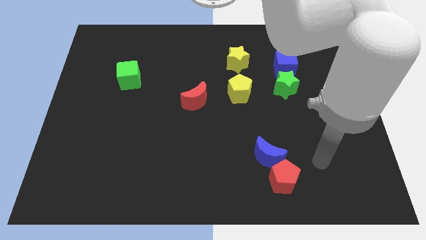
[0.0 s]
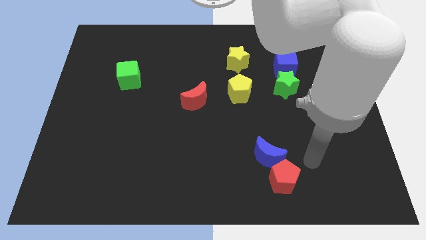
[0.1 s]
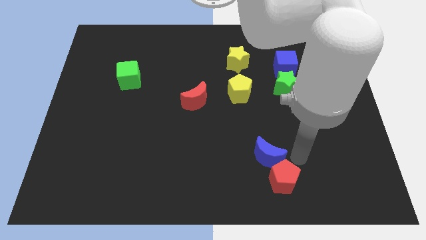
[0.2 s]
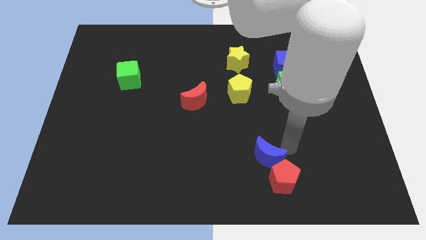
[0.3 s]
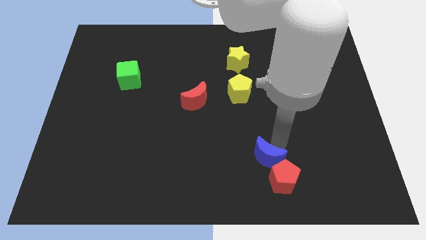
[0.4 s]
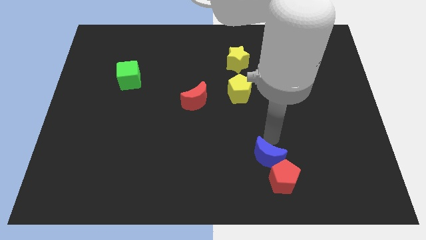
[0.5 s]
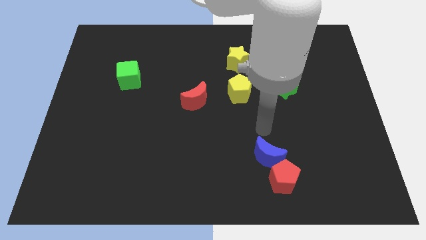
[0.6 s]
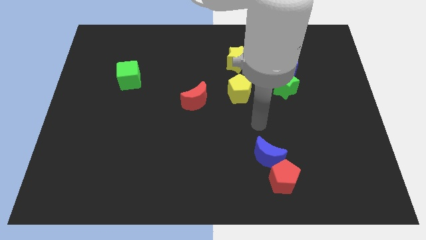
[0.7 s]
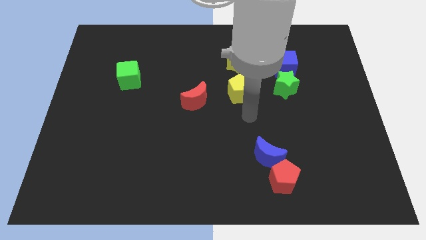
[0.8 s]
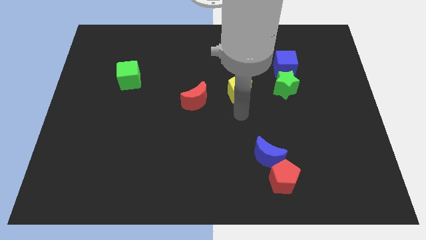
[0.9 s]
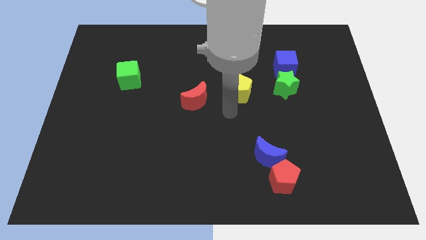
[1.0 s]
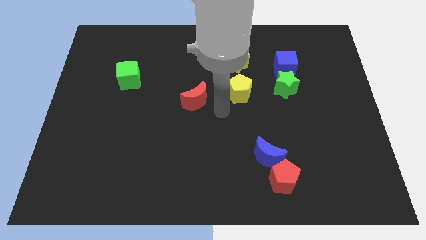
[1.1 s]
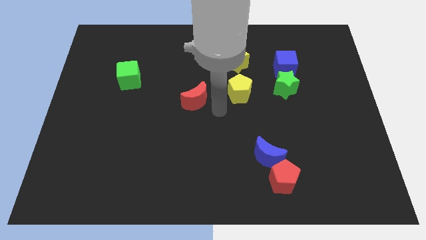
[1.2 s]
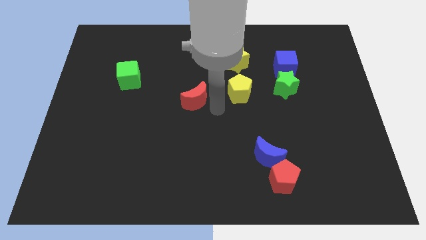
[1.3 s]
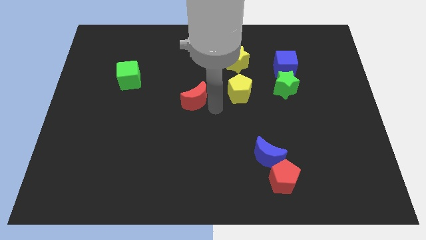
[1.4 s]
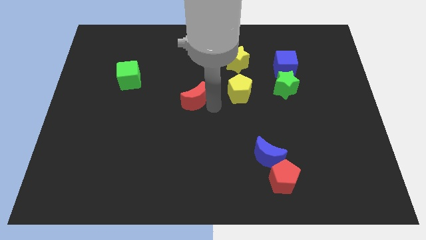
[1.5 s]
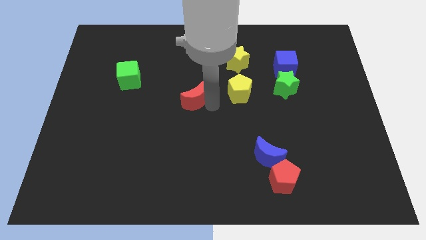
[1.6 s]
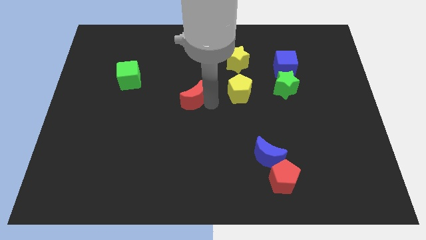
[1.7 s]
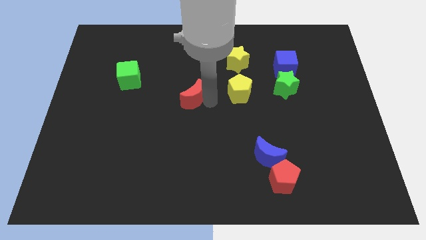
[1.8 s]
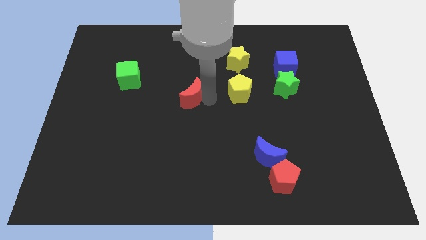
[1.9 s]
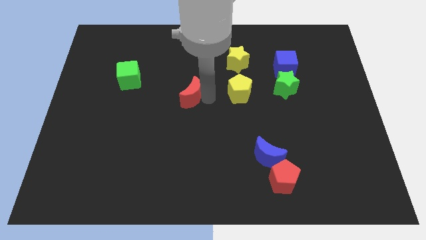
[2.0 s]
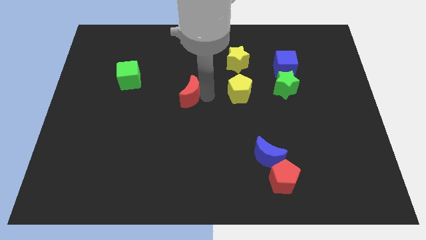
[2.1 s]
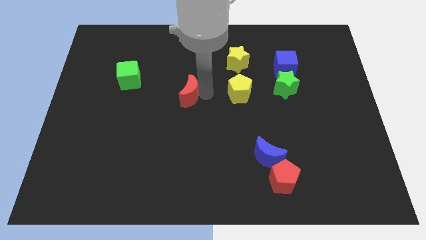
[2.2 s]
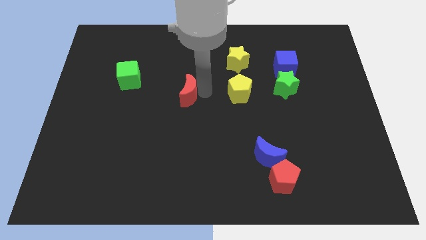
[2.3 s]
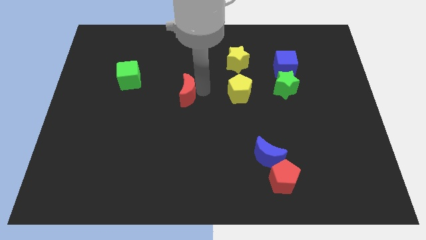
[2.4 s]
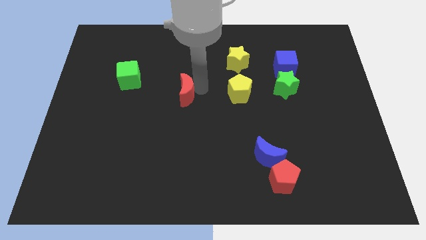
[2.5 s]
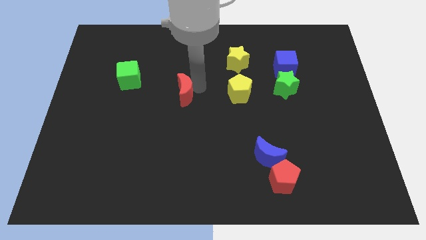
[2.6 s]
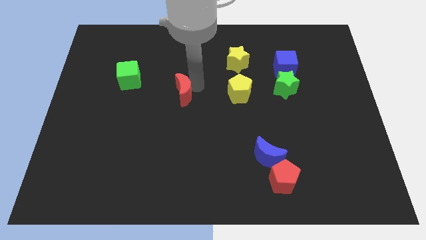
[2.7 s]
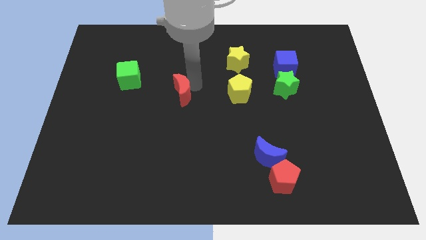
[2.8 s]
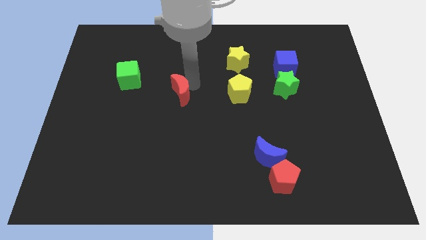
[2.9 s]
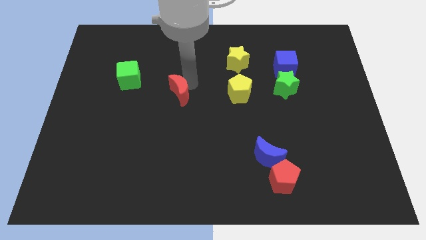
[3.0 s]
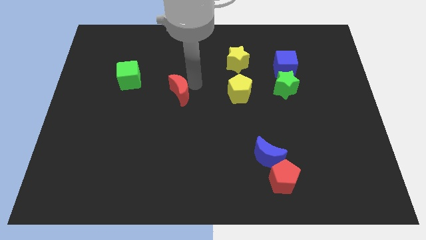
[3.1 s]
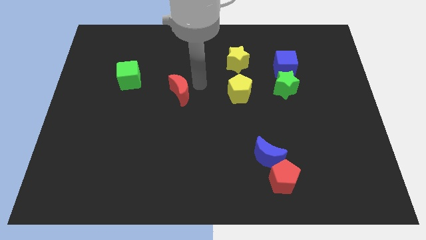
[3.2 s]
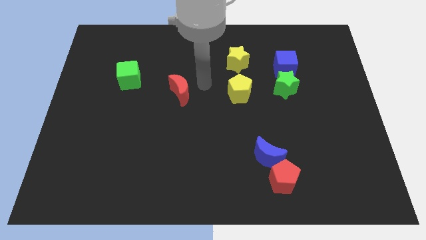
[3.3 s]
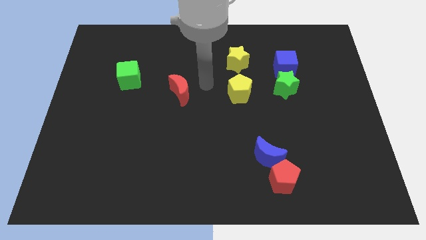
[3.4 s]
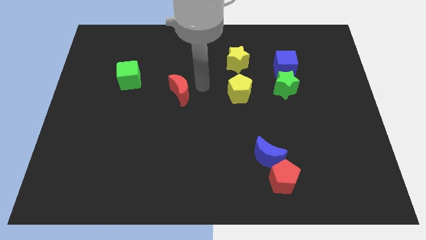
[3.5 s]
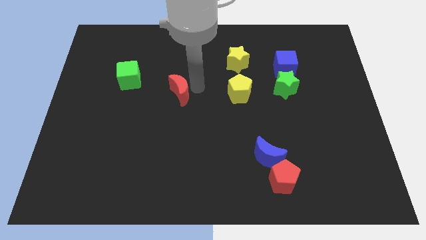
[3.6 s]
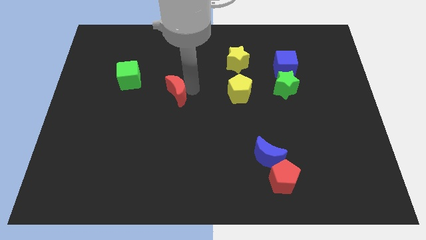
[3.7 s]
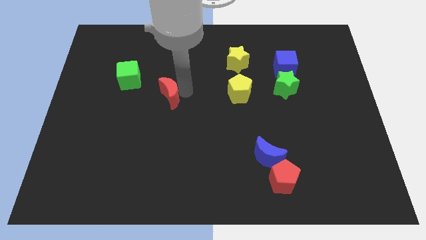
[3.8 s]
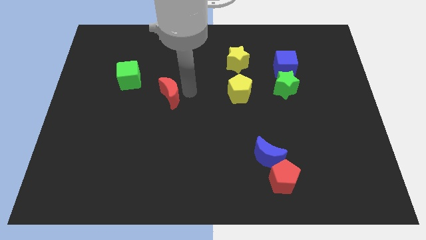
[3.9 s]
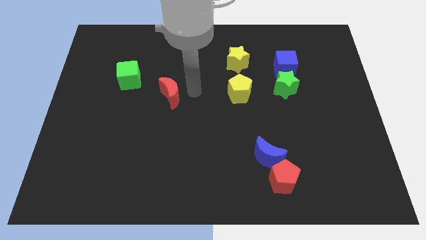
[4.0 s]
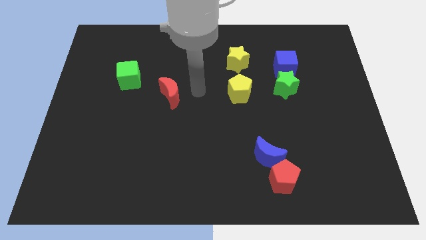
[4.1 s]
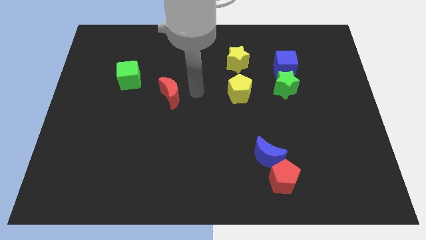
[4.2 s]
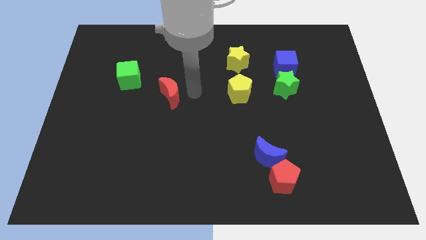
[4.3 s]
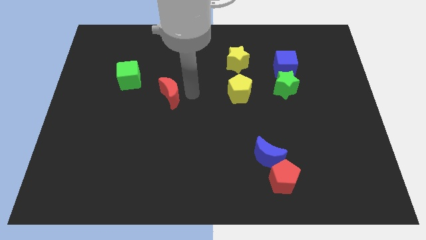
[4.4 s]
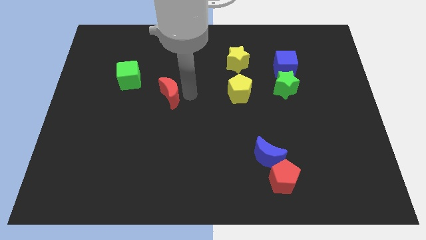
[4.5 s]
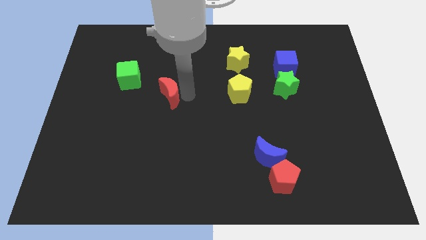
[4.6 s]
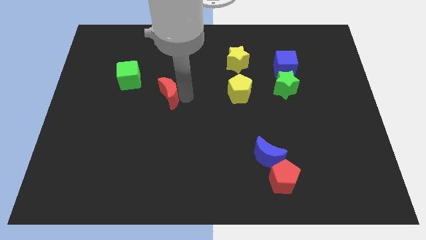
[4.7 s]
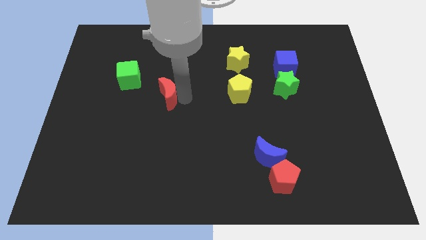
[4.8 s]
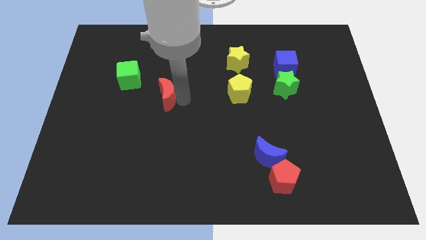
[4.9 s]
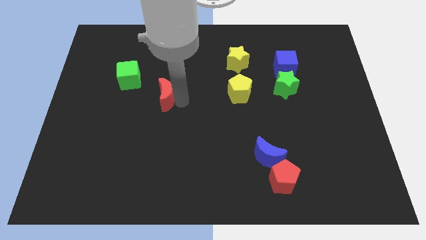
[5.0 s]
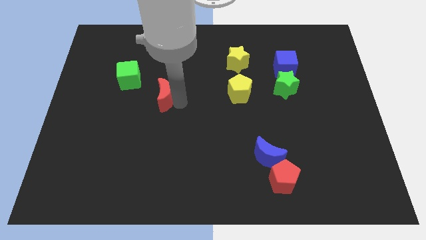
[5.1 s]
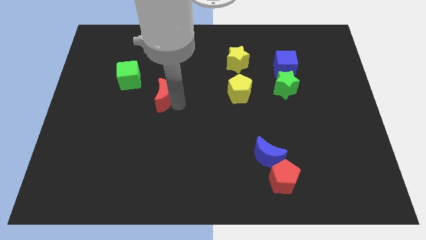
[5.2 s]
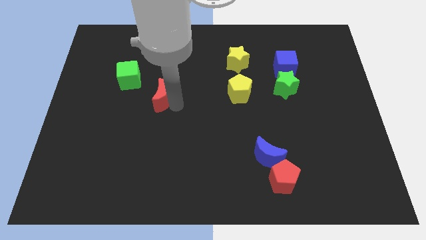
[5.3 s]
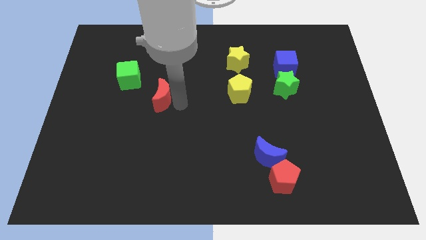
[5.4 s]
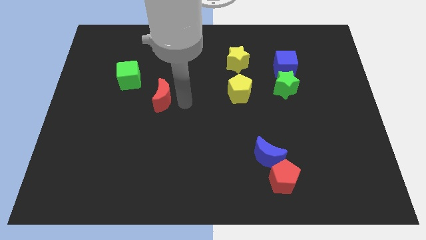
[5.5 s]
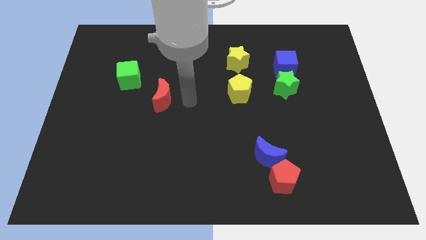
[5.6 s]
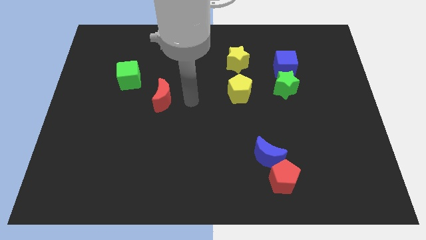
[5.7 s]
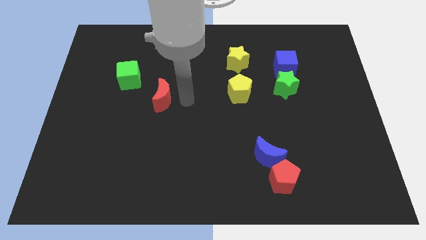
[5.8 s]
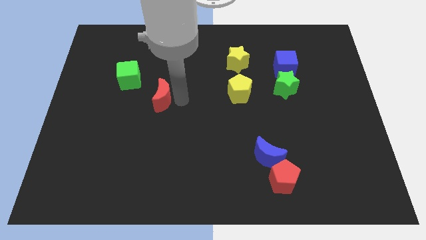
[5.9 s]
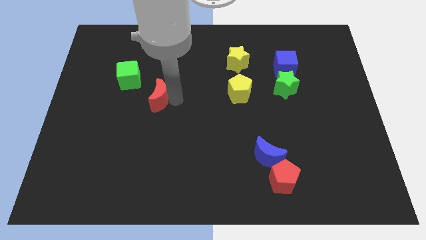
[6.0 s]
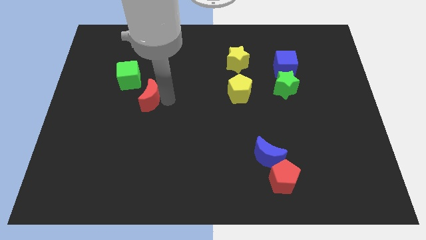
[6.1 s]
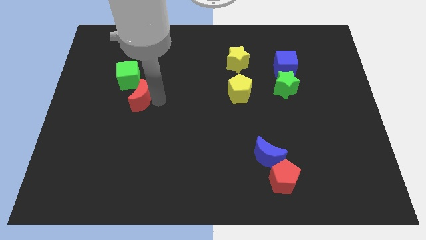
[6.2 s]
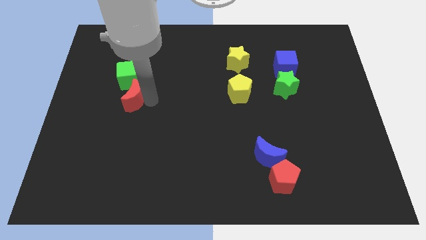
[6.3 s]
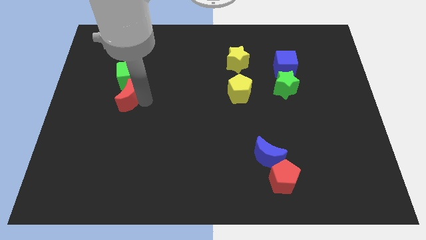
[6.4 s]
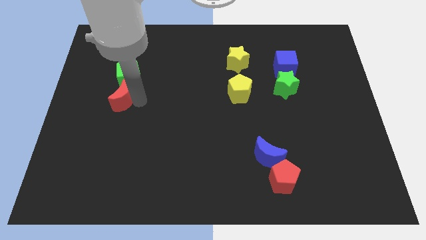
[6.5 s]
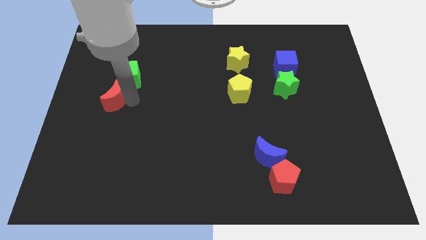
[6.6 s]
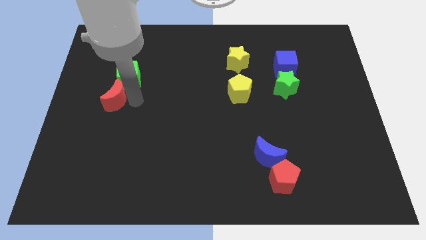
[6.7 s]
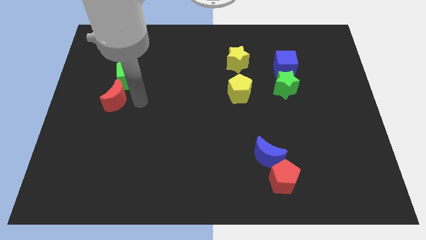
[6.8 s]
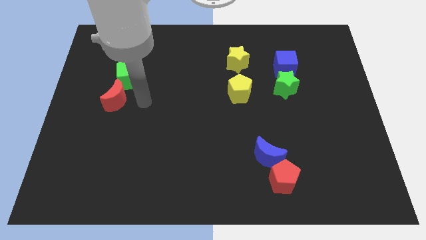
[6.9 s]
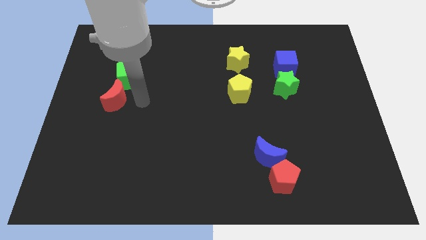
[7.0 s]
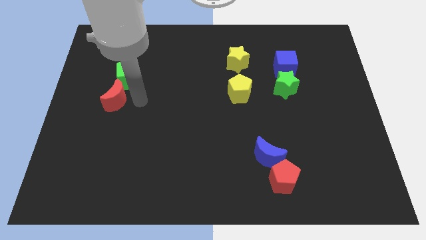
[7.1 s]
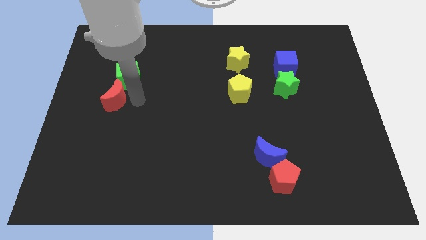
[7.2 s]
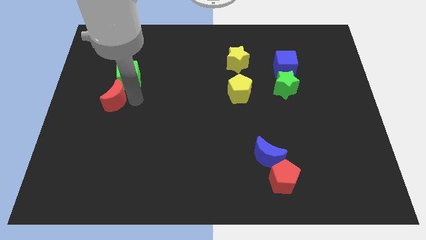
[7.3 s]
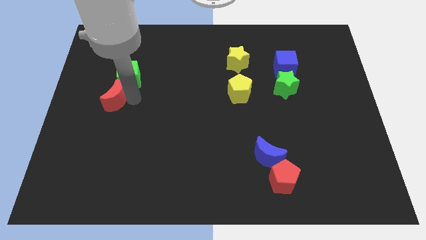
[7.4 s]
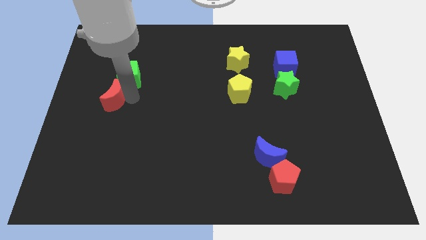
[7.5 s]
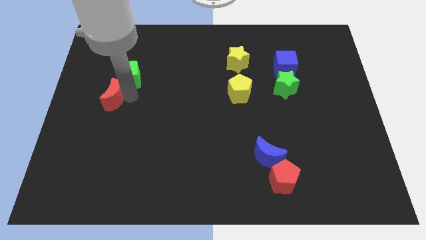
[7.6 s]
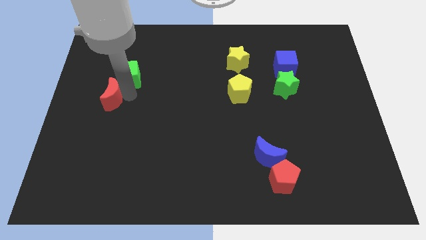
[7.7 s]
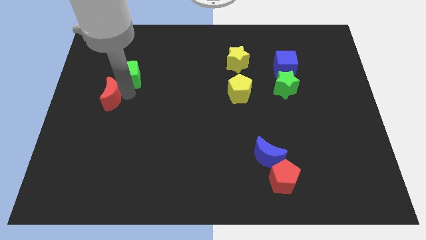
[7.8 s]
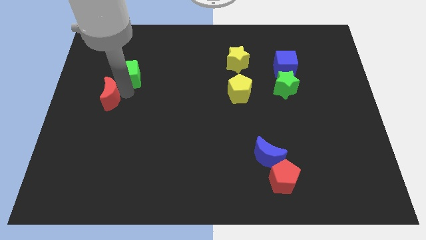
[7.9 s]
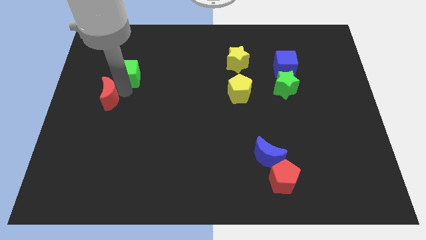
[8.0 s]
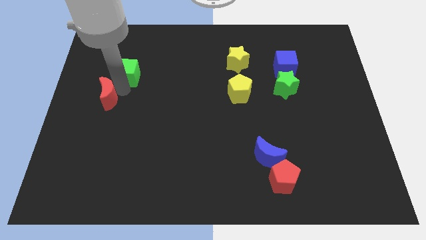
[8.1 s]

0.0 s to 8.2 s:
put the red moon to the center left
